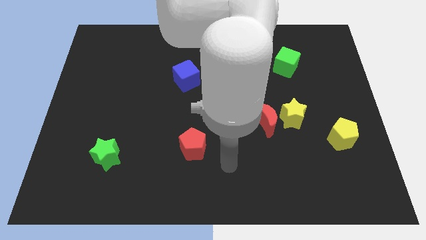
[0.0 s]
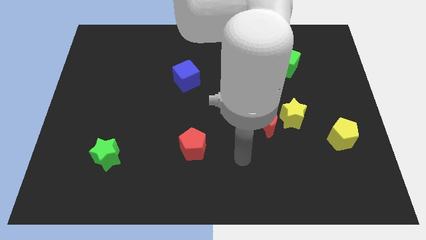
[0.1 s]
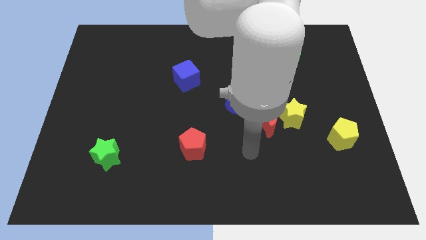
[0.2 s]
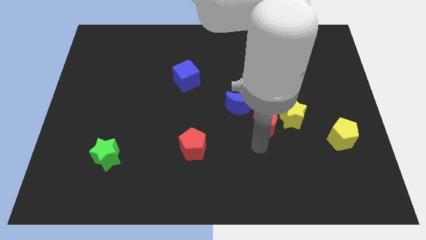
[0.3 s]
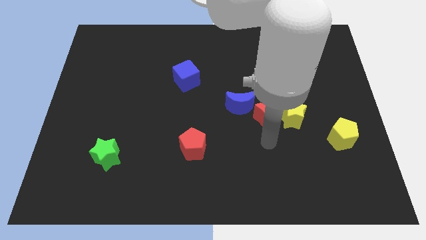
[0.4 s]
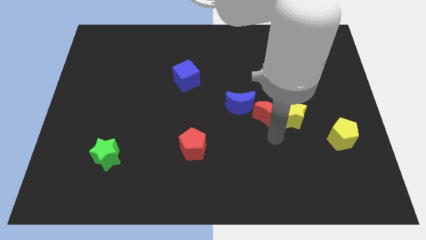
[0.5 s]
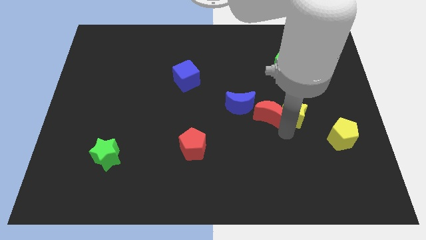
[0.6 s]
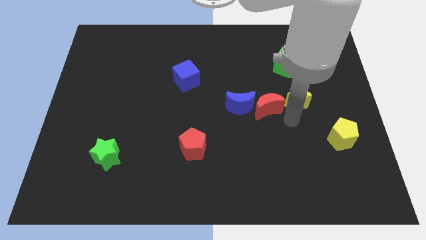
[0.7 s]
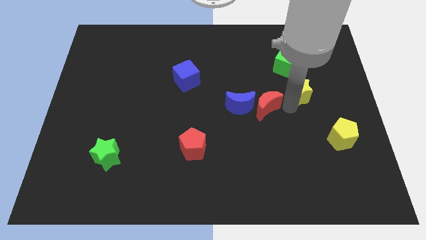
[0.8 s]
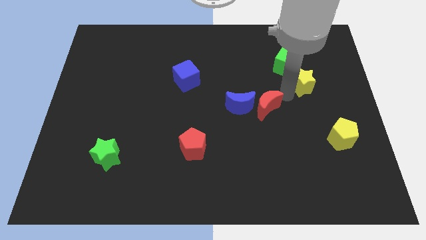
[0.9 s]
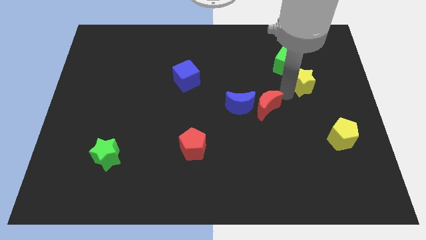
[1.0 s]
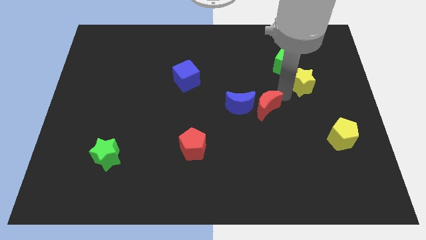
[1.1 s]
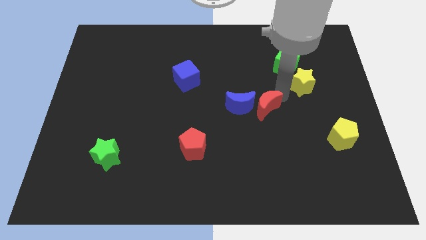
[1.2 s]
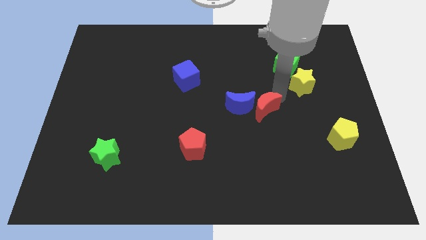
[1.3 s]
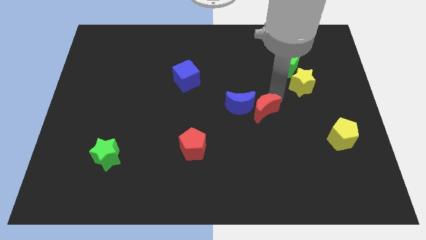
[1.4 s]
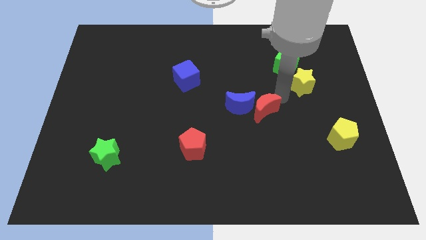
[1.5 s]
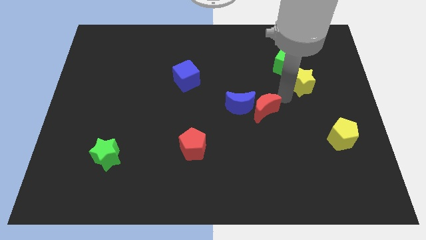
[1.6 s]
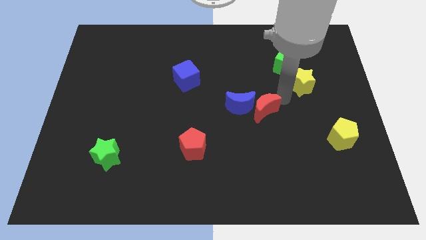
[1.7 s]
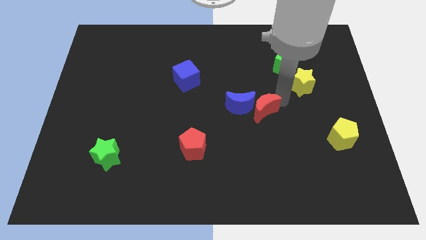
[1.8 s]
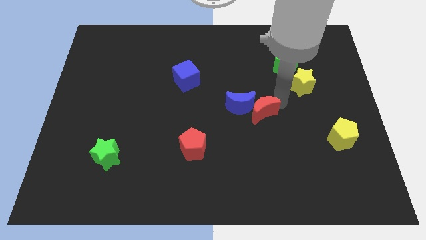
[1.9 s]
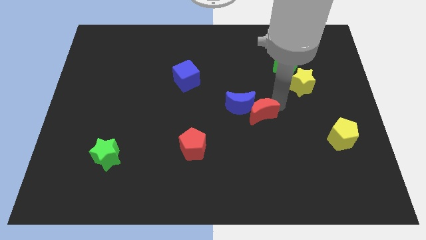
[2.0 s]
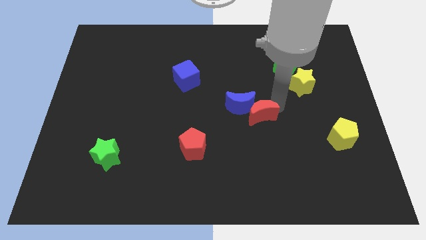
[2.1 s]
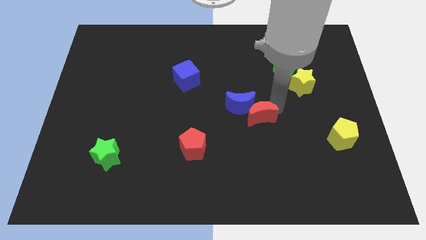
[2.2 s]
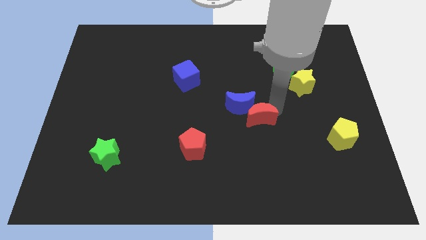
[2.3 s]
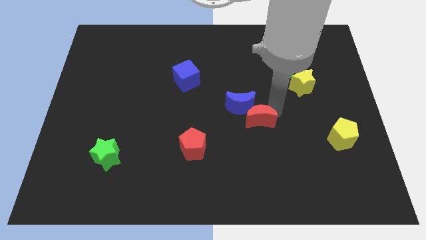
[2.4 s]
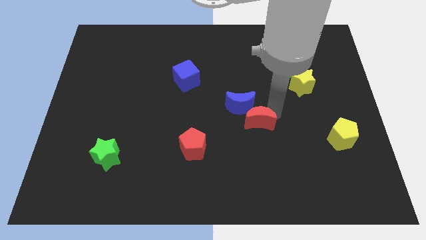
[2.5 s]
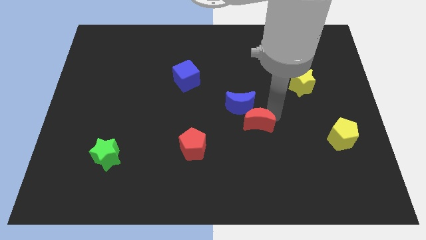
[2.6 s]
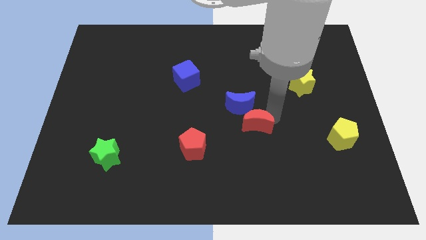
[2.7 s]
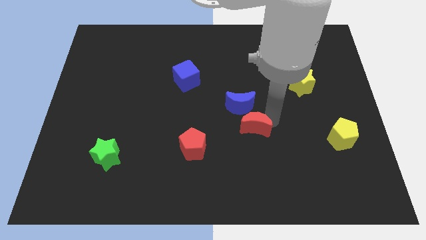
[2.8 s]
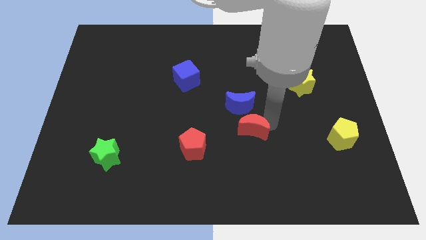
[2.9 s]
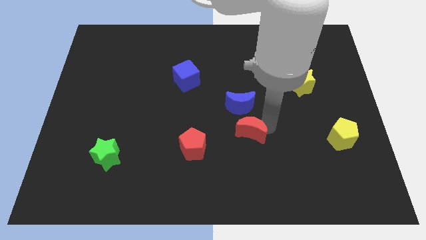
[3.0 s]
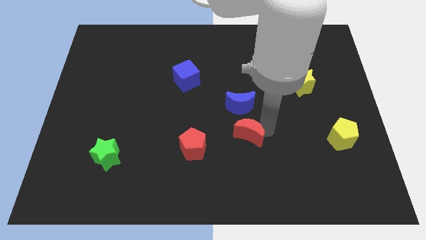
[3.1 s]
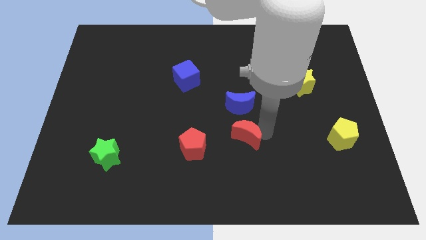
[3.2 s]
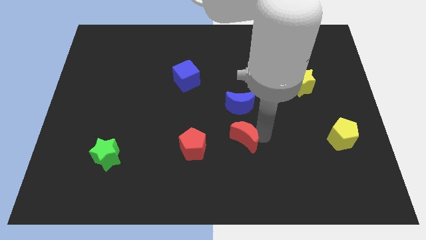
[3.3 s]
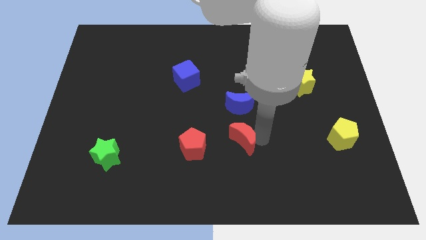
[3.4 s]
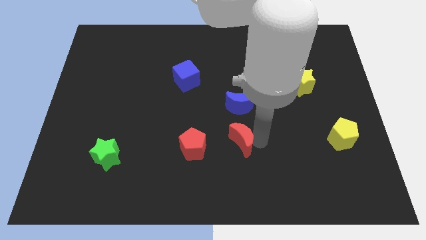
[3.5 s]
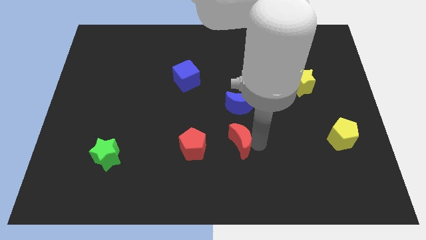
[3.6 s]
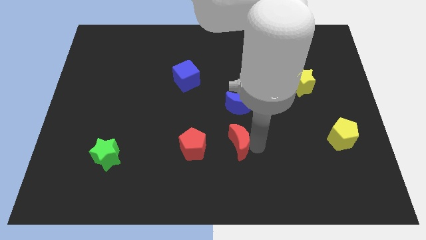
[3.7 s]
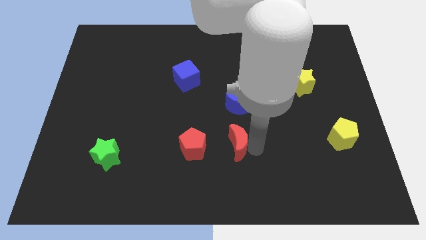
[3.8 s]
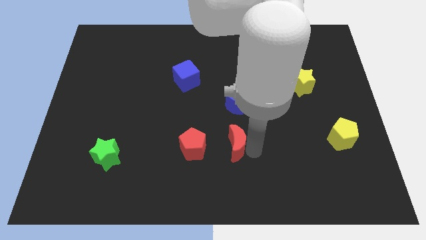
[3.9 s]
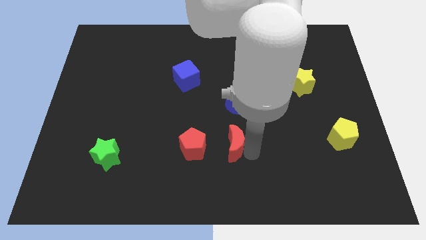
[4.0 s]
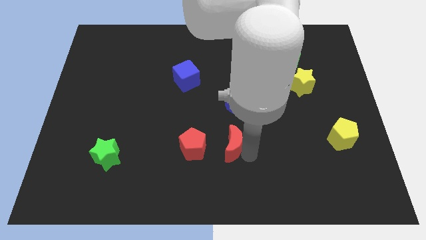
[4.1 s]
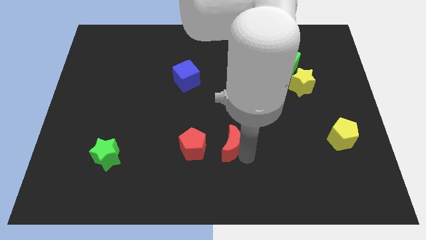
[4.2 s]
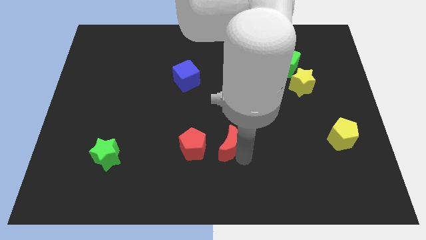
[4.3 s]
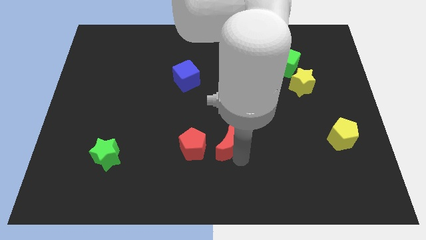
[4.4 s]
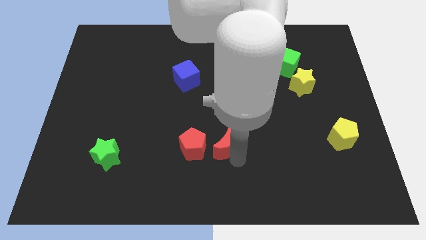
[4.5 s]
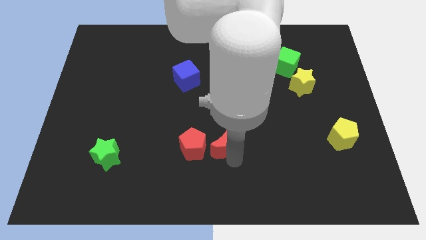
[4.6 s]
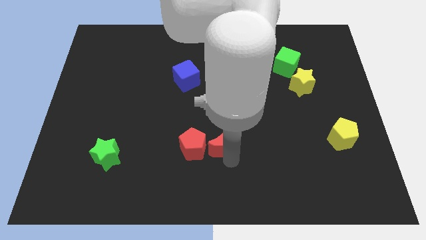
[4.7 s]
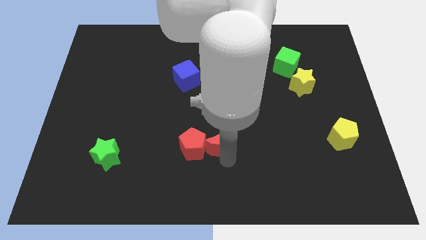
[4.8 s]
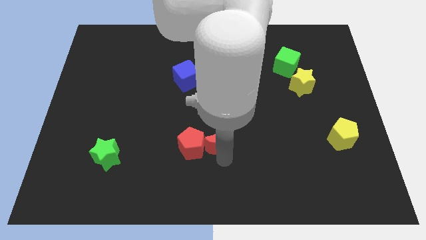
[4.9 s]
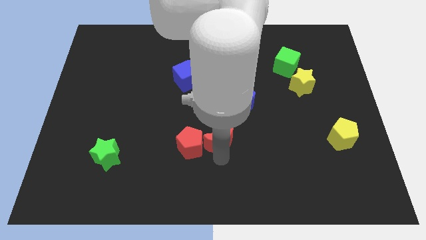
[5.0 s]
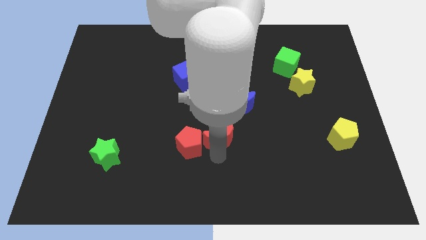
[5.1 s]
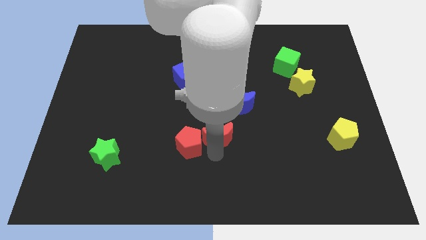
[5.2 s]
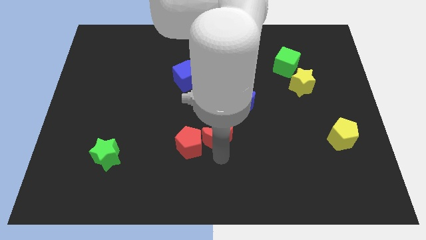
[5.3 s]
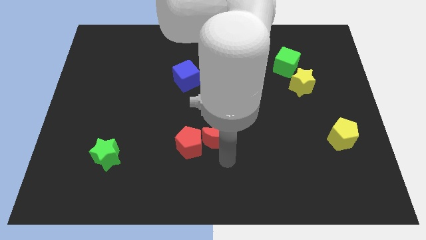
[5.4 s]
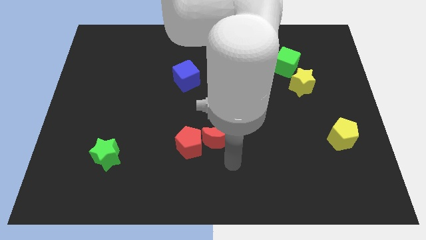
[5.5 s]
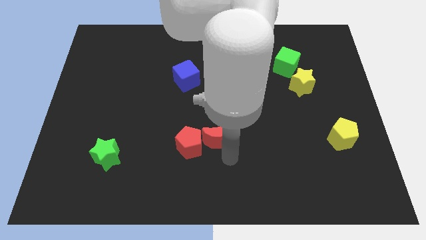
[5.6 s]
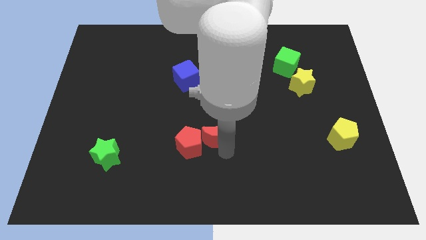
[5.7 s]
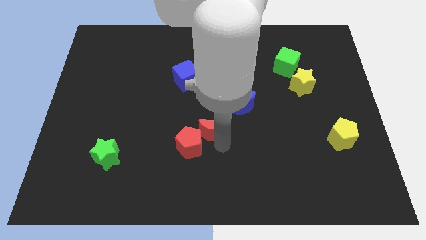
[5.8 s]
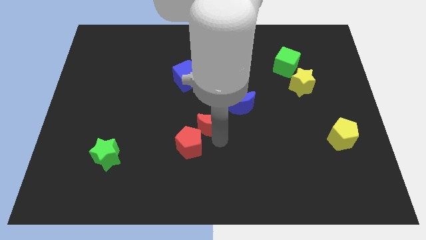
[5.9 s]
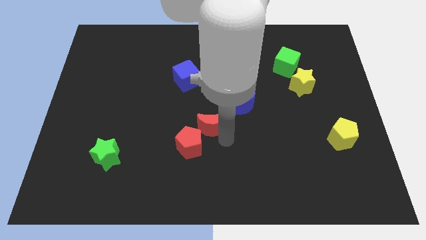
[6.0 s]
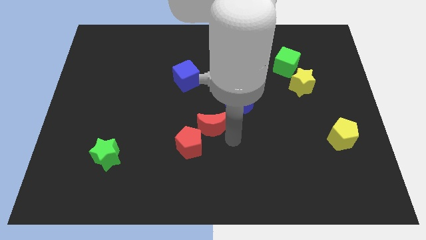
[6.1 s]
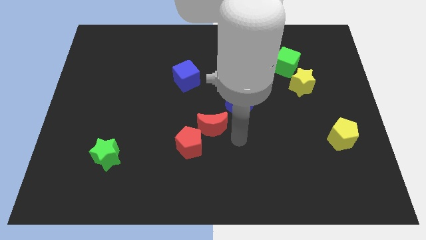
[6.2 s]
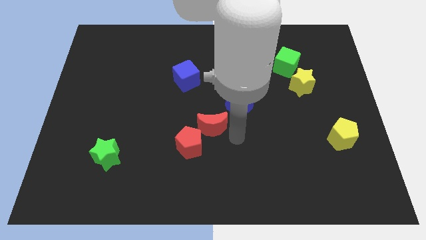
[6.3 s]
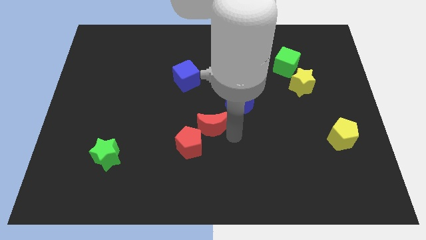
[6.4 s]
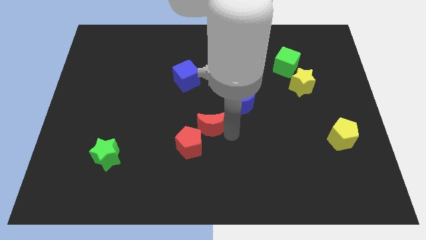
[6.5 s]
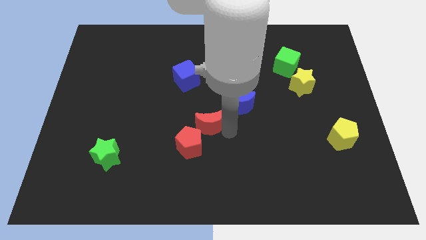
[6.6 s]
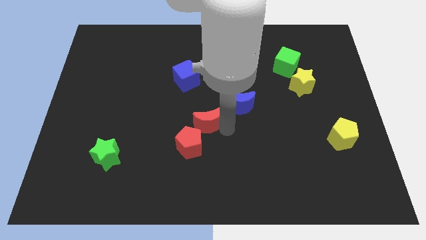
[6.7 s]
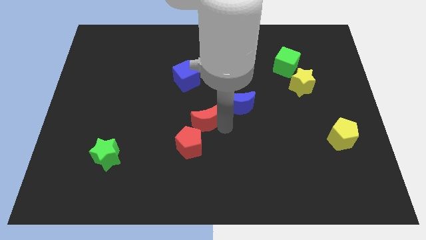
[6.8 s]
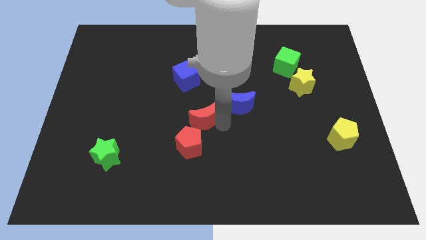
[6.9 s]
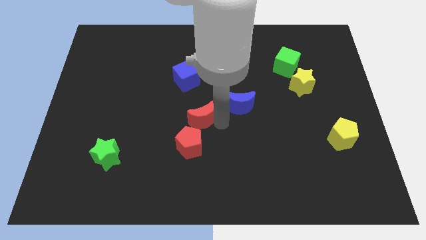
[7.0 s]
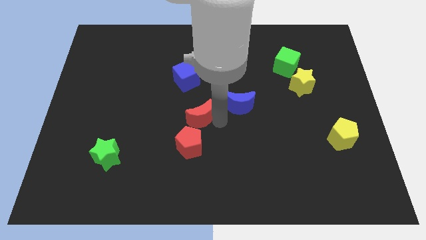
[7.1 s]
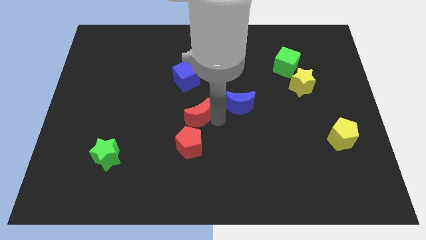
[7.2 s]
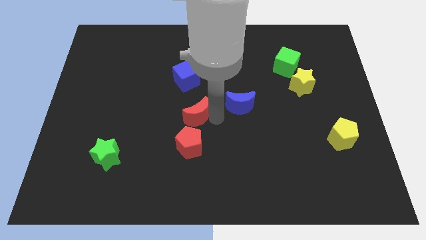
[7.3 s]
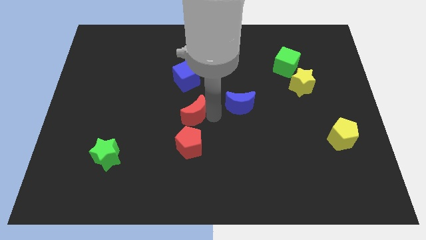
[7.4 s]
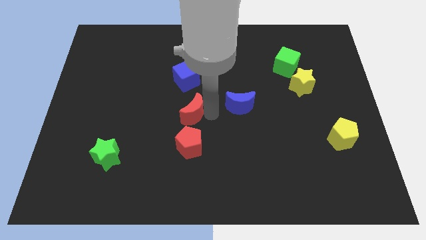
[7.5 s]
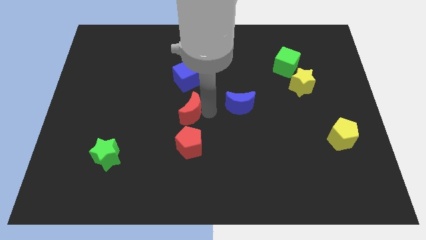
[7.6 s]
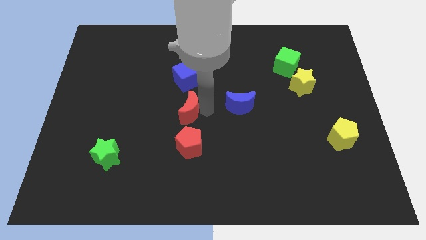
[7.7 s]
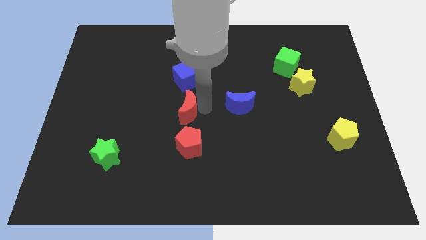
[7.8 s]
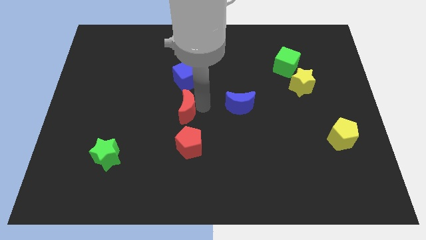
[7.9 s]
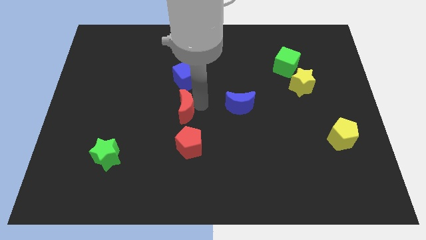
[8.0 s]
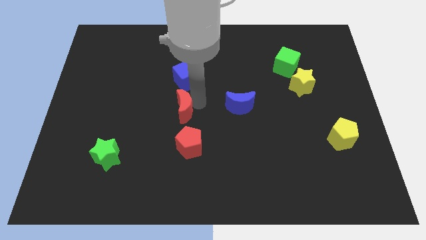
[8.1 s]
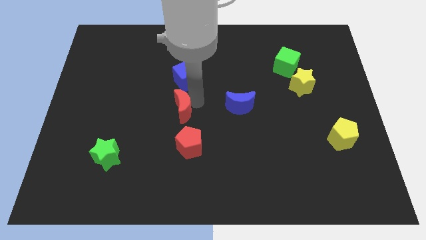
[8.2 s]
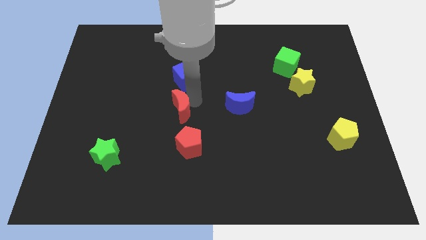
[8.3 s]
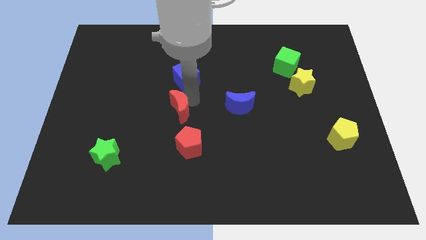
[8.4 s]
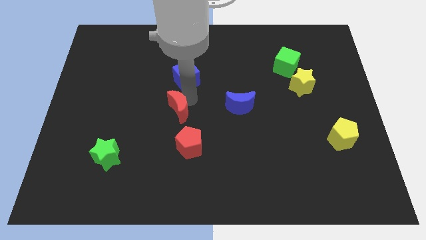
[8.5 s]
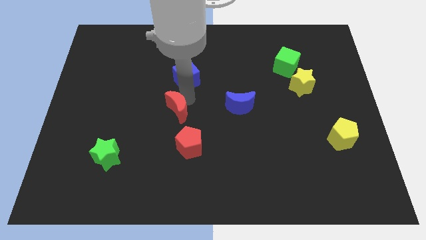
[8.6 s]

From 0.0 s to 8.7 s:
slide the red moon left
